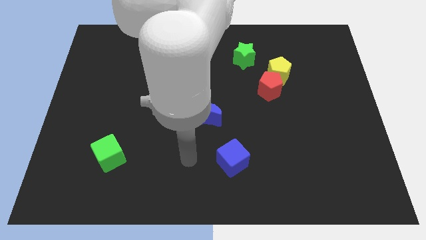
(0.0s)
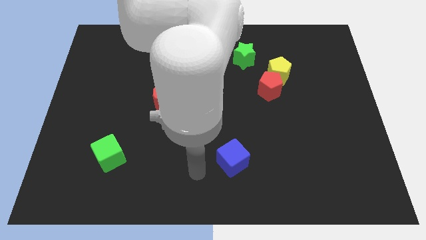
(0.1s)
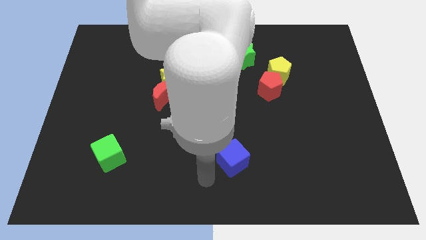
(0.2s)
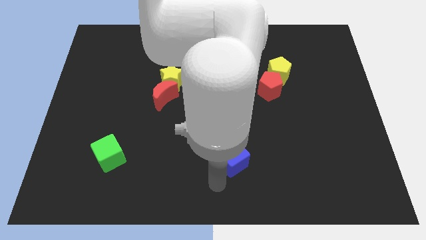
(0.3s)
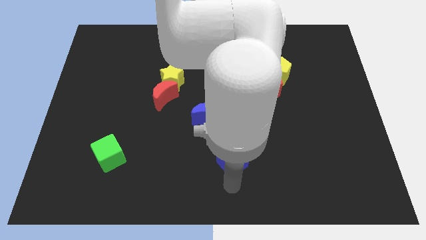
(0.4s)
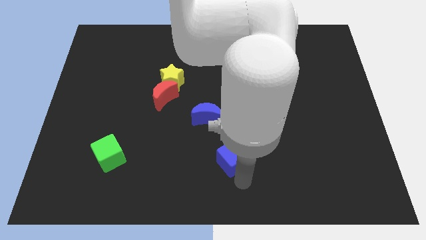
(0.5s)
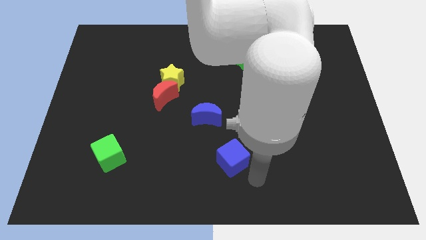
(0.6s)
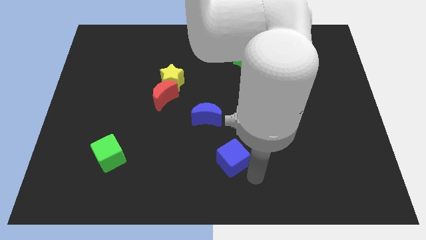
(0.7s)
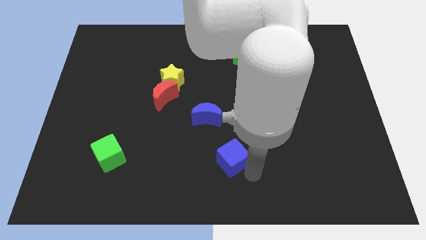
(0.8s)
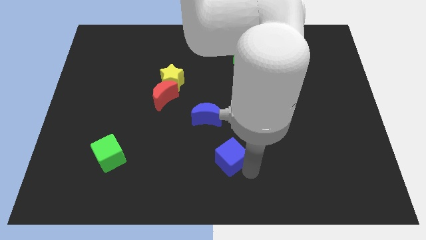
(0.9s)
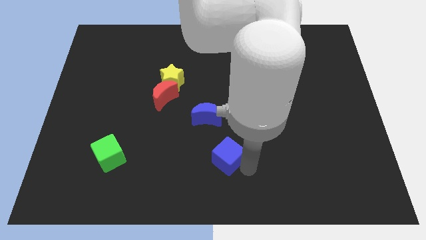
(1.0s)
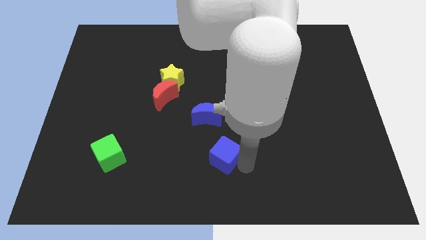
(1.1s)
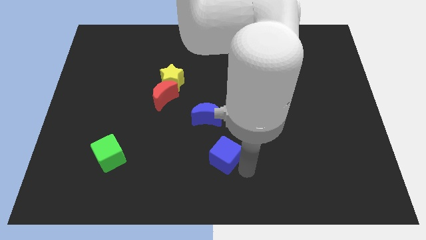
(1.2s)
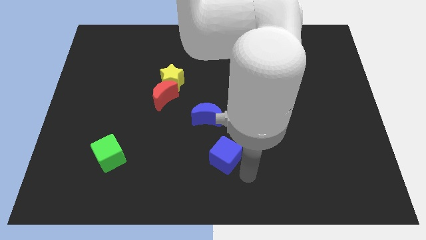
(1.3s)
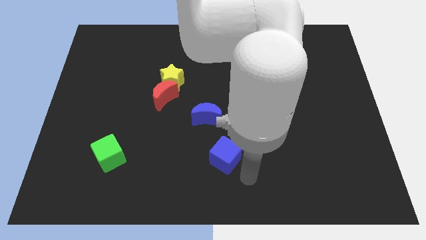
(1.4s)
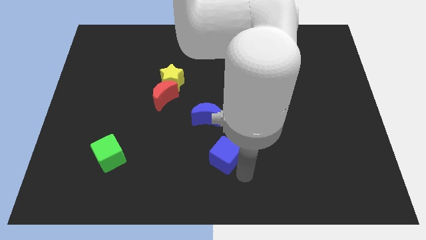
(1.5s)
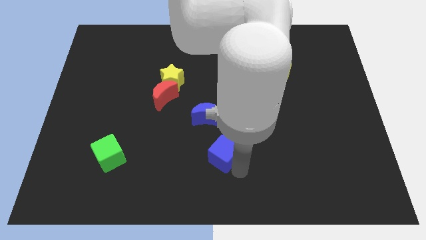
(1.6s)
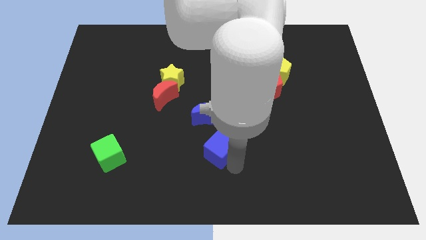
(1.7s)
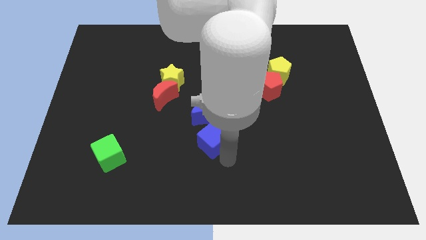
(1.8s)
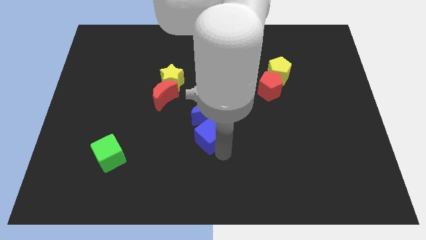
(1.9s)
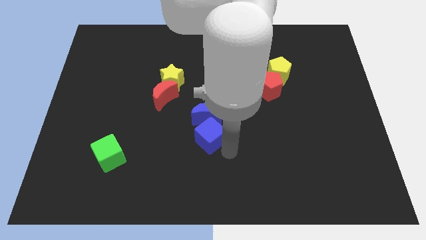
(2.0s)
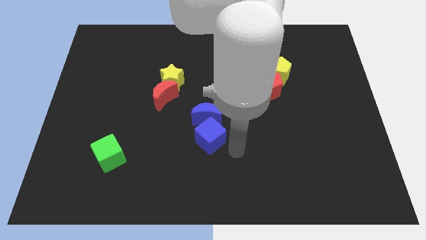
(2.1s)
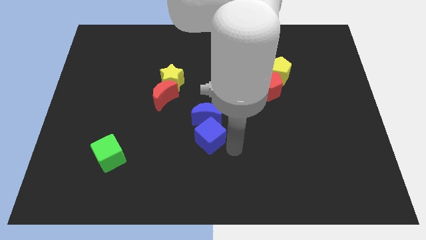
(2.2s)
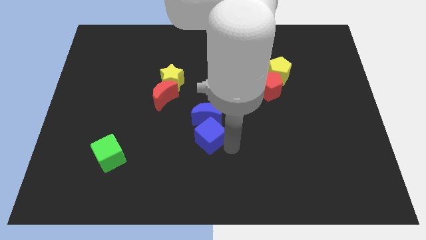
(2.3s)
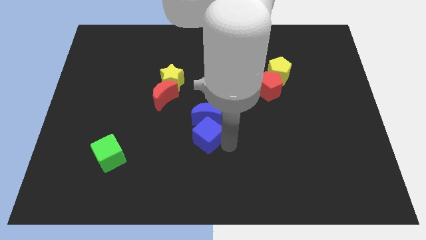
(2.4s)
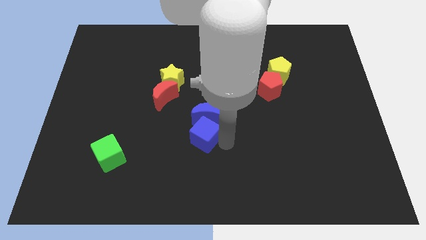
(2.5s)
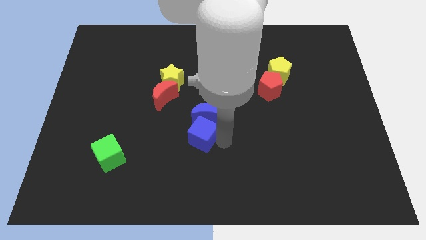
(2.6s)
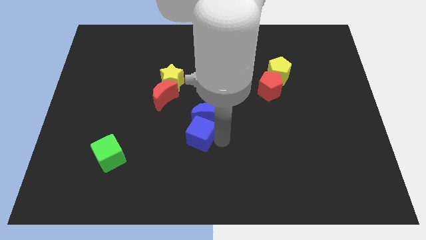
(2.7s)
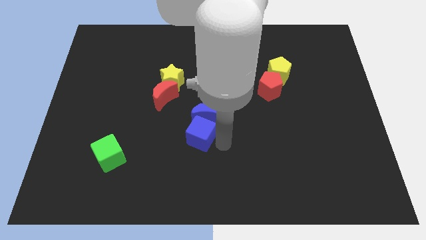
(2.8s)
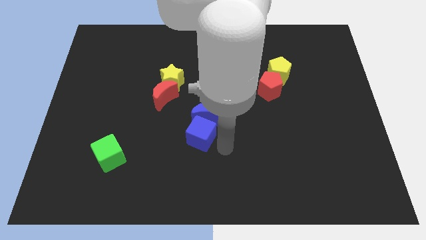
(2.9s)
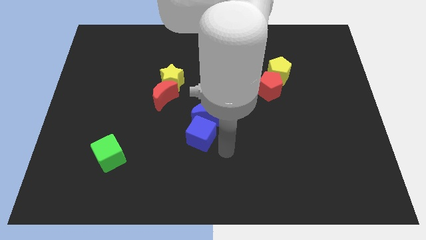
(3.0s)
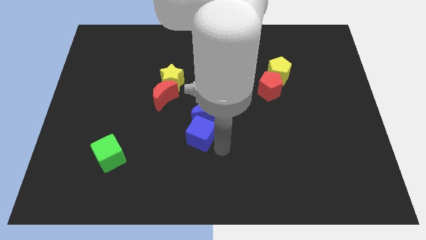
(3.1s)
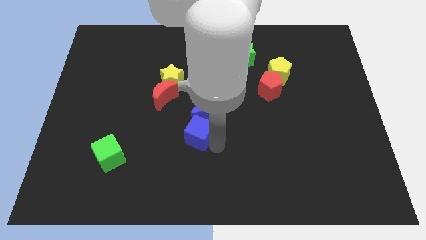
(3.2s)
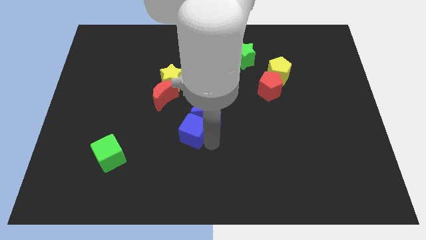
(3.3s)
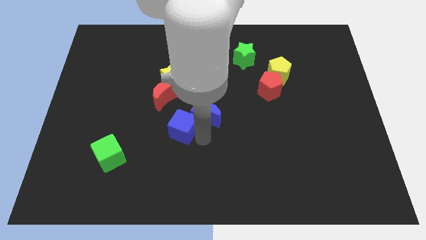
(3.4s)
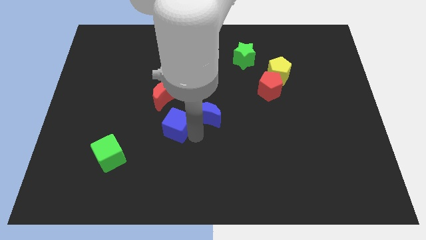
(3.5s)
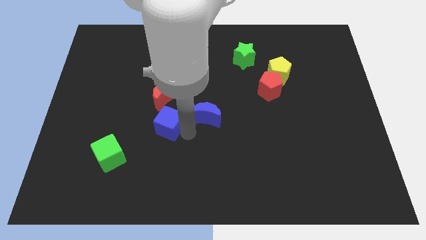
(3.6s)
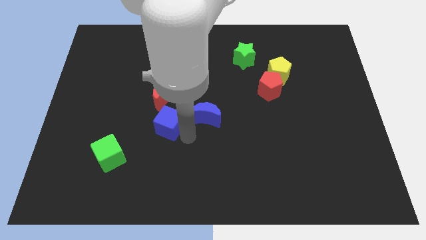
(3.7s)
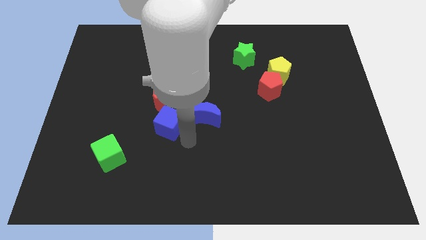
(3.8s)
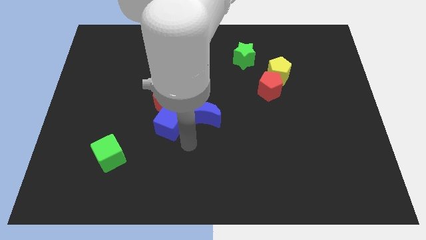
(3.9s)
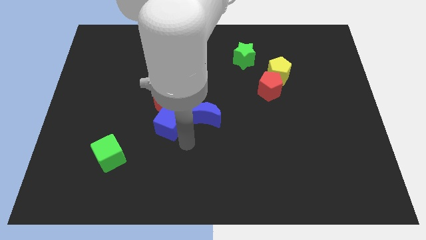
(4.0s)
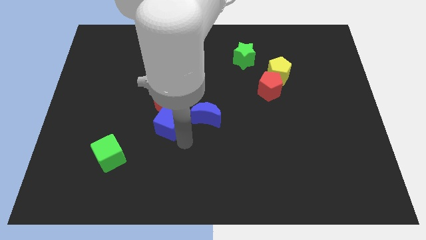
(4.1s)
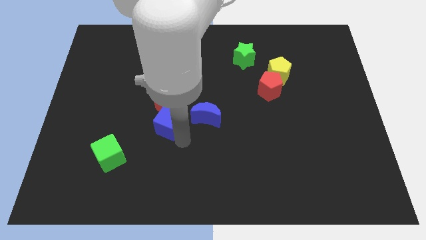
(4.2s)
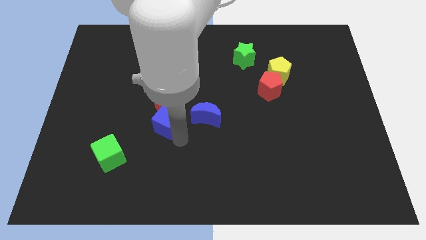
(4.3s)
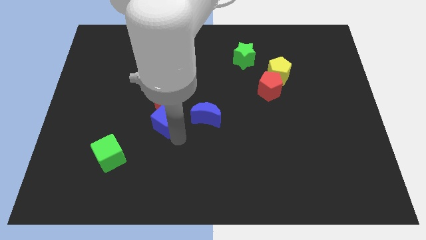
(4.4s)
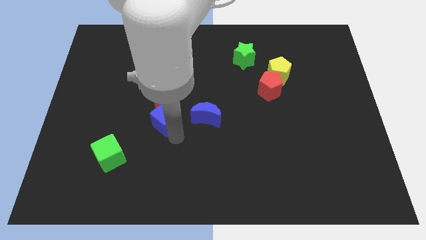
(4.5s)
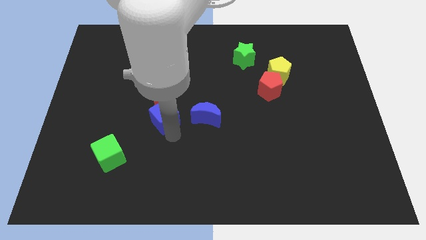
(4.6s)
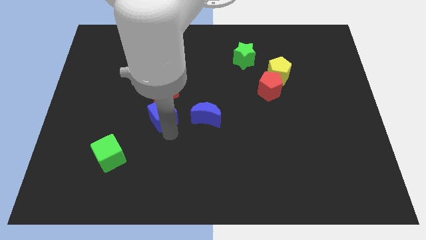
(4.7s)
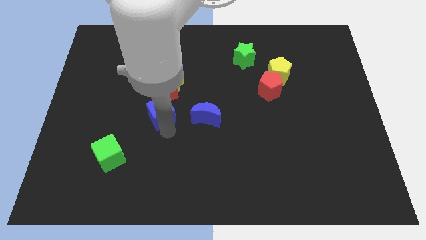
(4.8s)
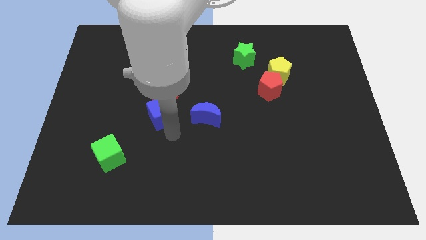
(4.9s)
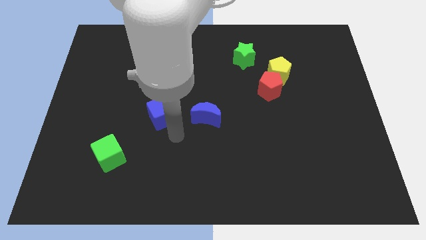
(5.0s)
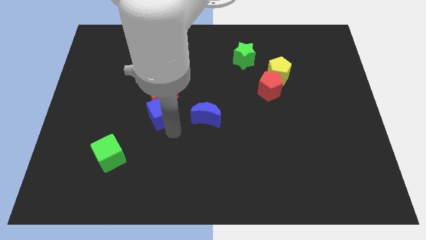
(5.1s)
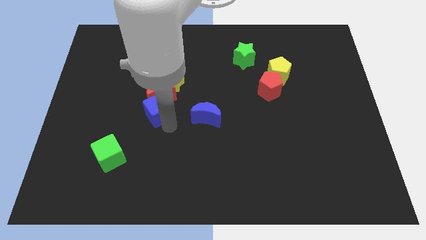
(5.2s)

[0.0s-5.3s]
put the blue cube to the bottom left of the yellow star

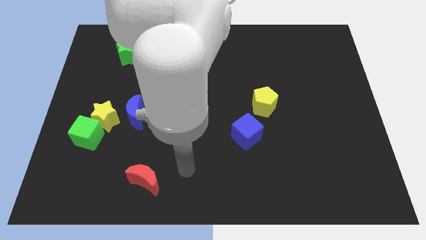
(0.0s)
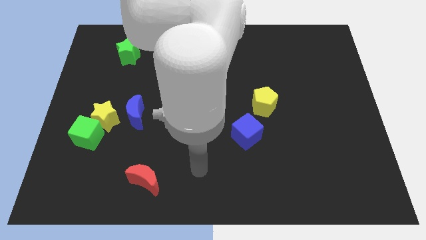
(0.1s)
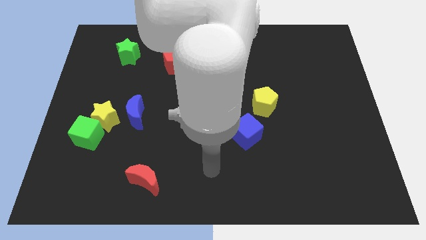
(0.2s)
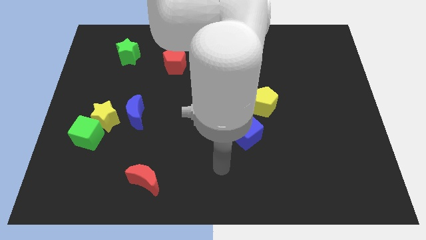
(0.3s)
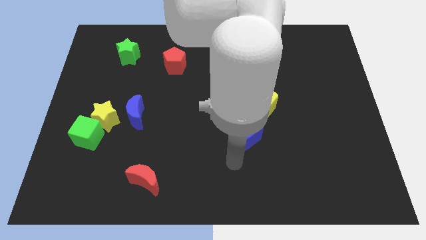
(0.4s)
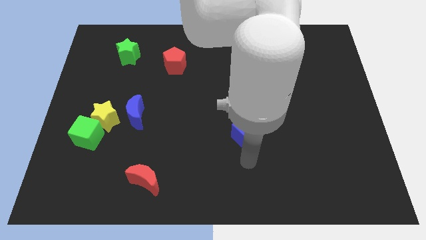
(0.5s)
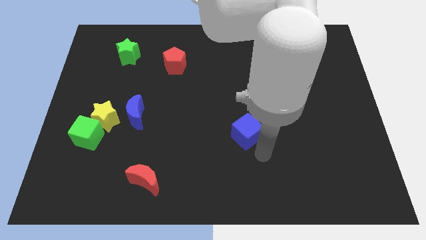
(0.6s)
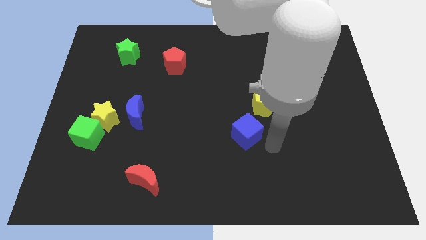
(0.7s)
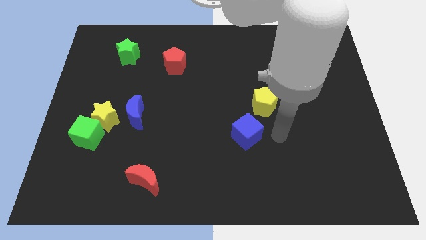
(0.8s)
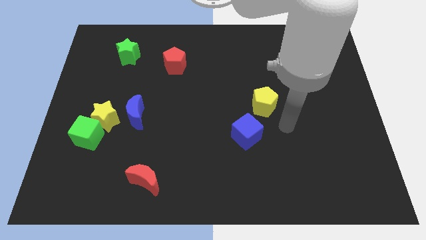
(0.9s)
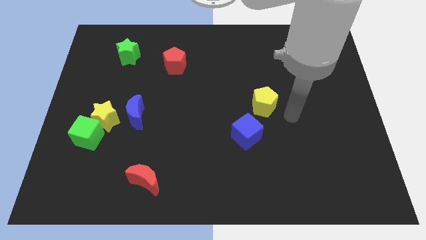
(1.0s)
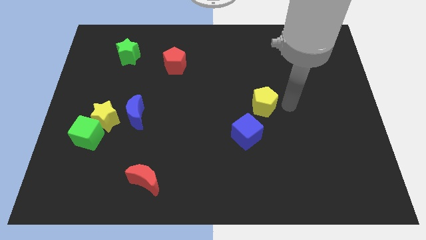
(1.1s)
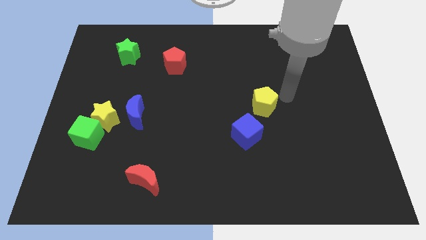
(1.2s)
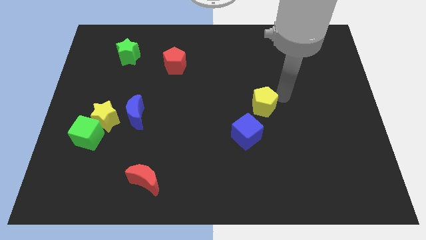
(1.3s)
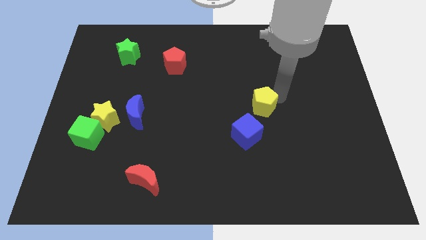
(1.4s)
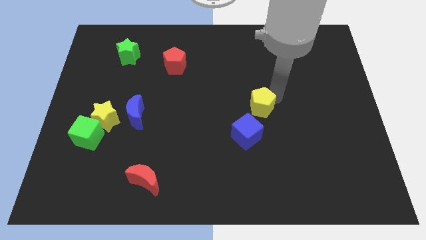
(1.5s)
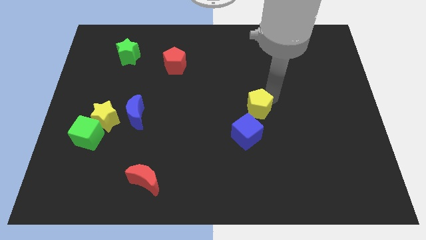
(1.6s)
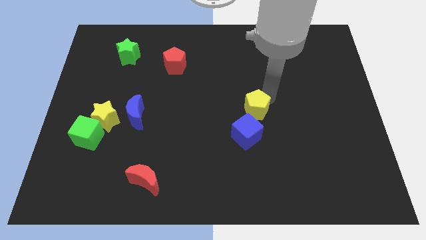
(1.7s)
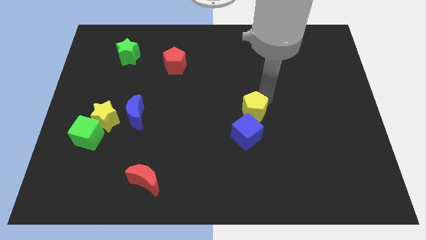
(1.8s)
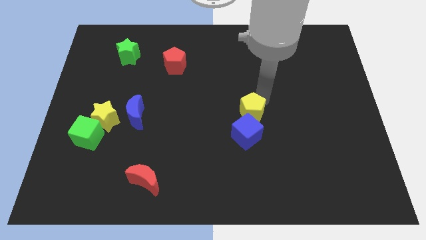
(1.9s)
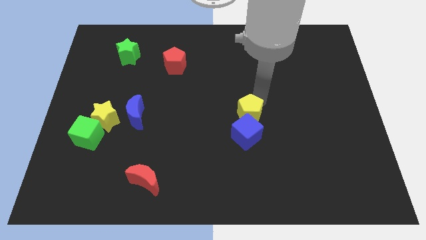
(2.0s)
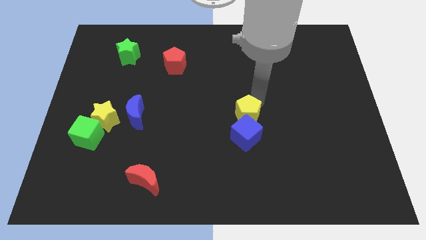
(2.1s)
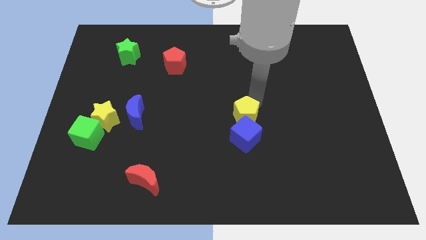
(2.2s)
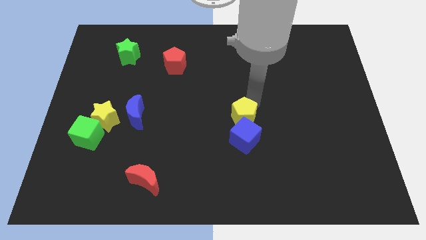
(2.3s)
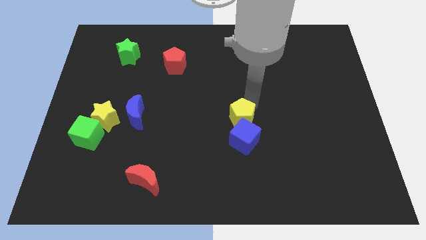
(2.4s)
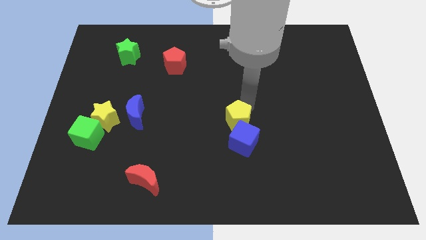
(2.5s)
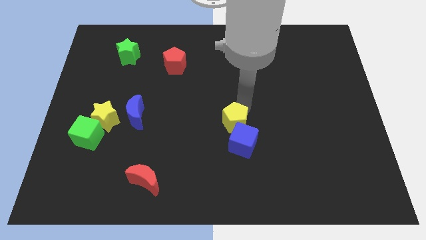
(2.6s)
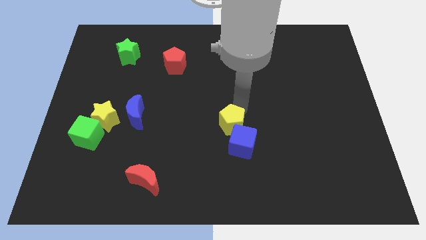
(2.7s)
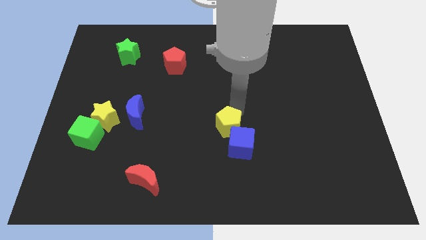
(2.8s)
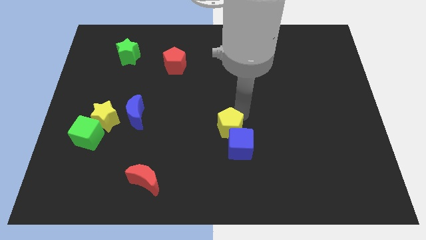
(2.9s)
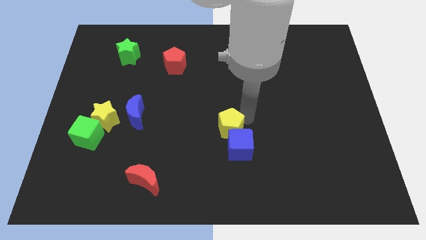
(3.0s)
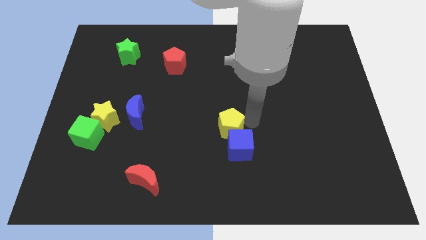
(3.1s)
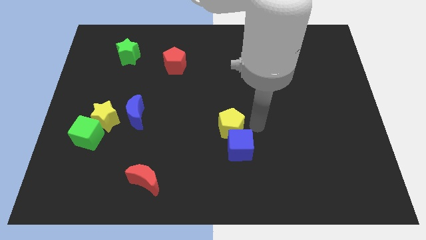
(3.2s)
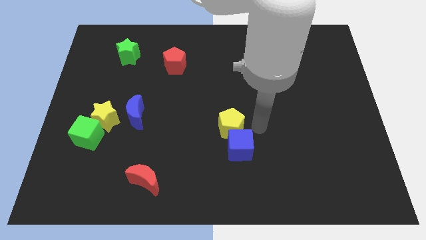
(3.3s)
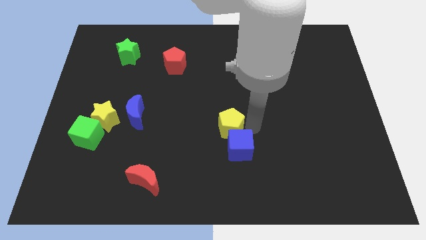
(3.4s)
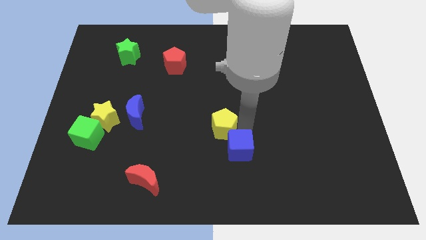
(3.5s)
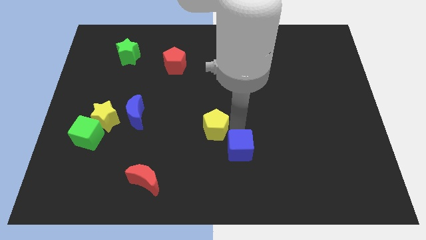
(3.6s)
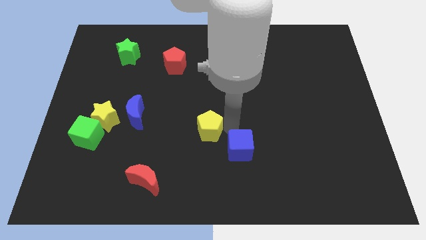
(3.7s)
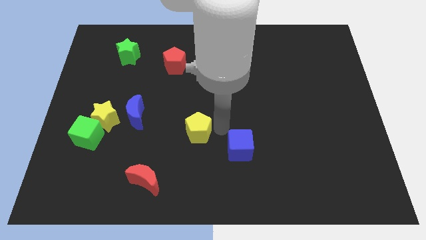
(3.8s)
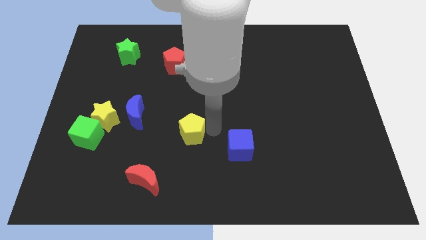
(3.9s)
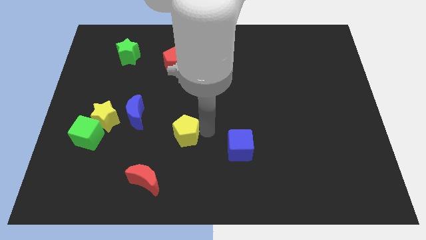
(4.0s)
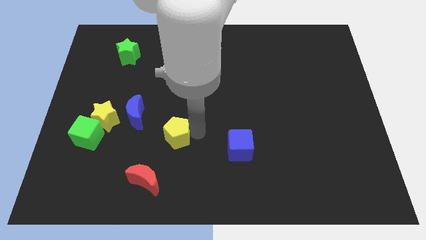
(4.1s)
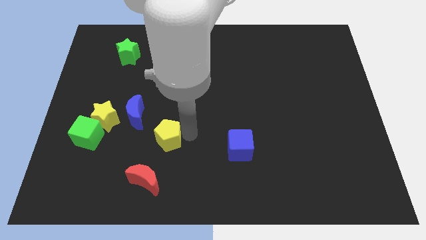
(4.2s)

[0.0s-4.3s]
move the yellow pentagon to the top of the red moon
